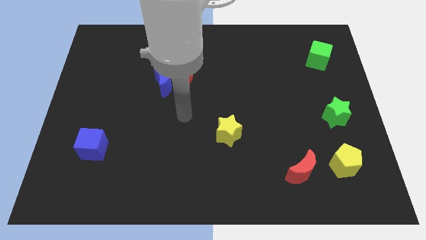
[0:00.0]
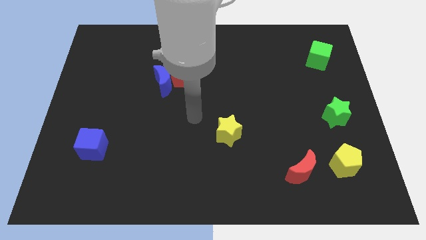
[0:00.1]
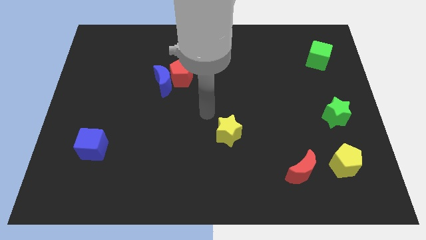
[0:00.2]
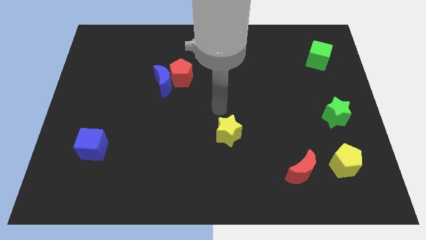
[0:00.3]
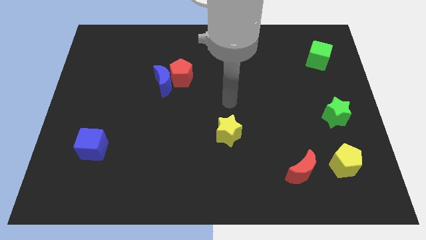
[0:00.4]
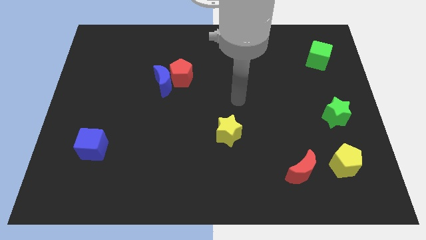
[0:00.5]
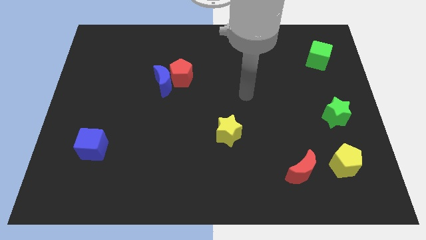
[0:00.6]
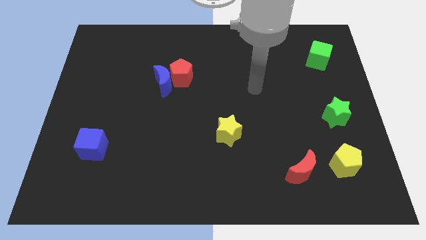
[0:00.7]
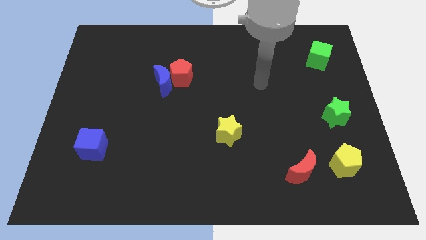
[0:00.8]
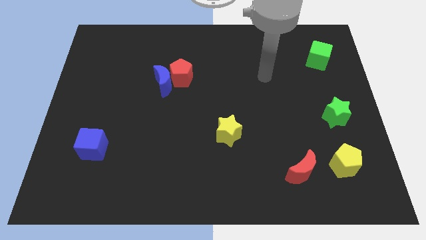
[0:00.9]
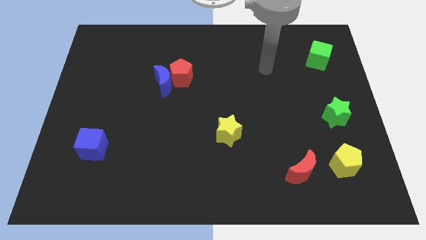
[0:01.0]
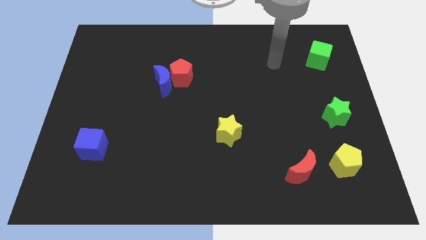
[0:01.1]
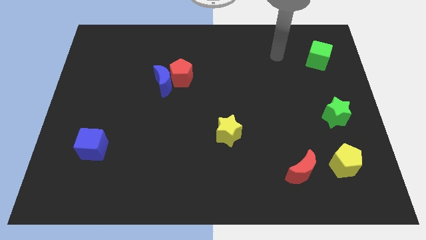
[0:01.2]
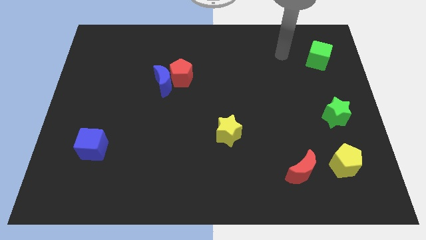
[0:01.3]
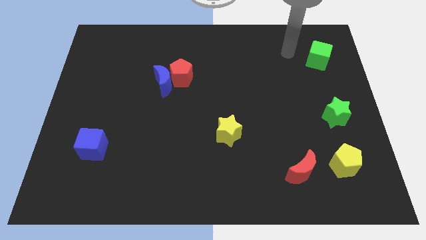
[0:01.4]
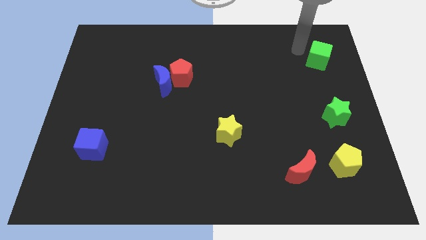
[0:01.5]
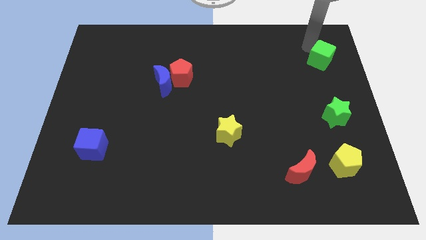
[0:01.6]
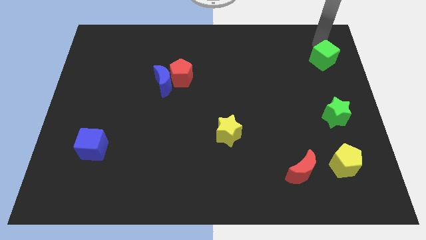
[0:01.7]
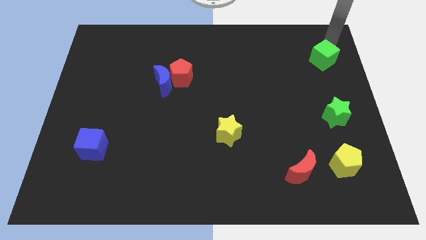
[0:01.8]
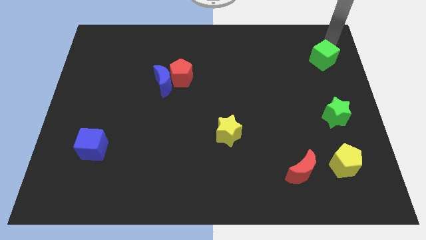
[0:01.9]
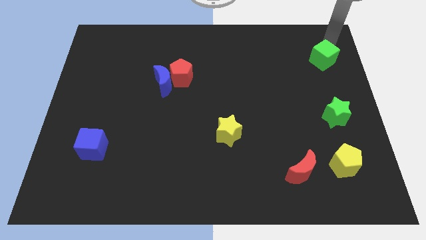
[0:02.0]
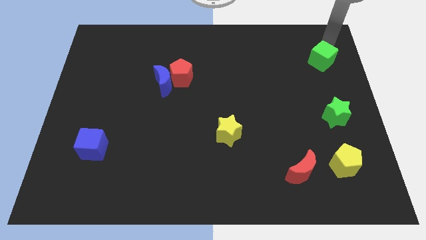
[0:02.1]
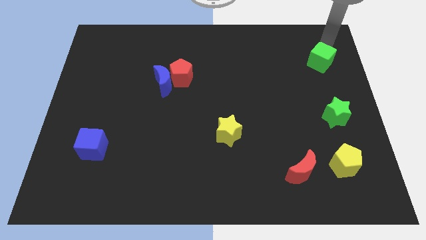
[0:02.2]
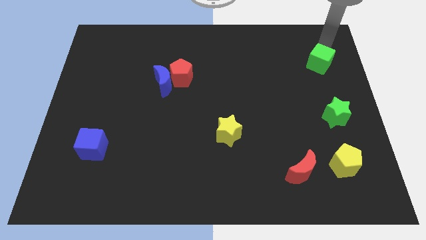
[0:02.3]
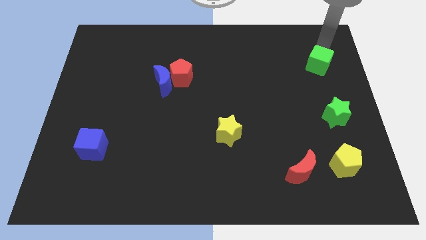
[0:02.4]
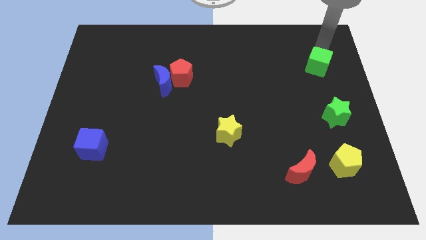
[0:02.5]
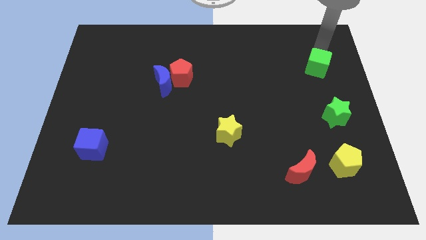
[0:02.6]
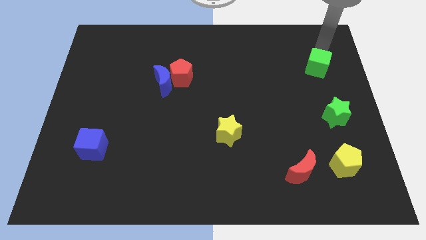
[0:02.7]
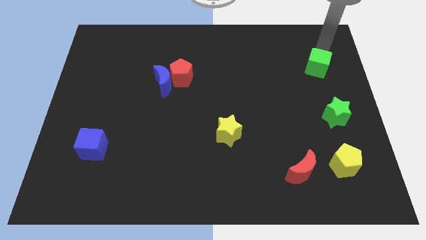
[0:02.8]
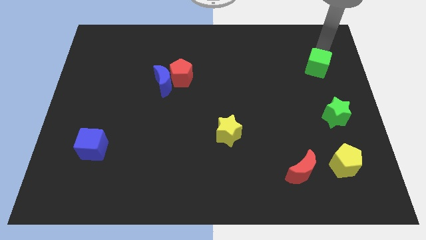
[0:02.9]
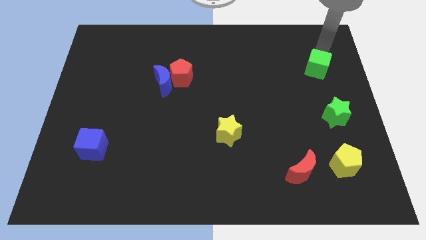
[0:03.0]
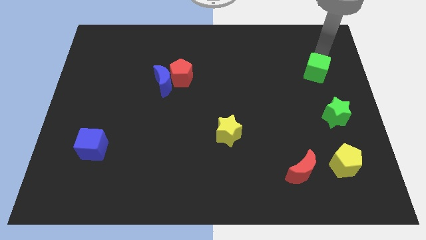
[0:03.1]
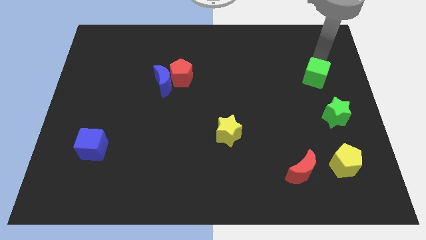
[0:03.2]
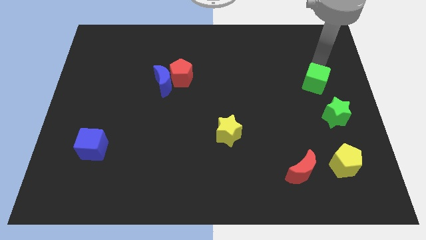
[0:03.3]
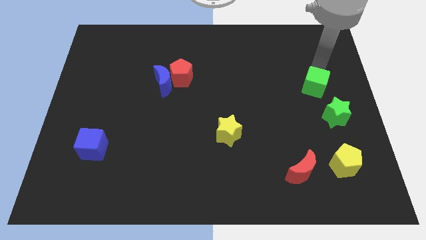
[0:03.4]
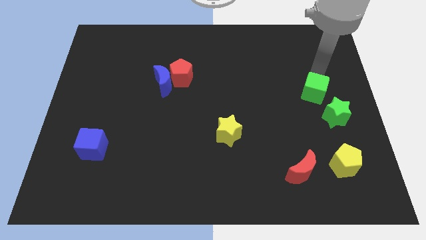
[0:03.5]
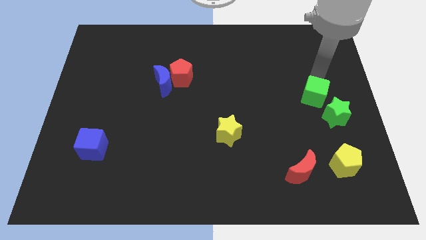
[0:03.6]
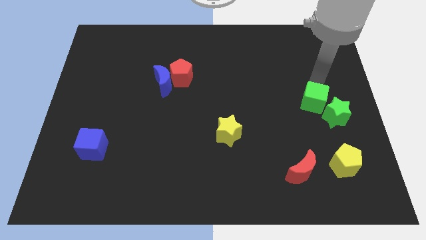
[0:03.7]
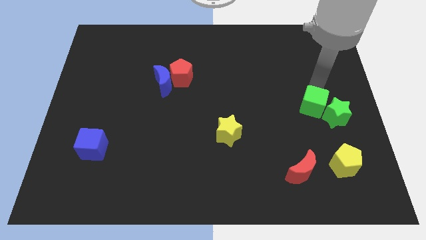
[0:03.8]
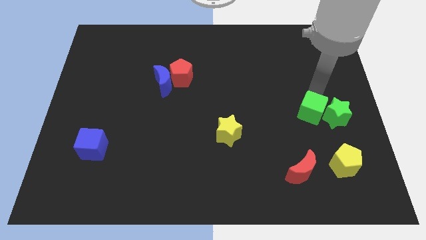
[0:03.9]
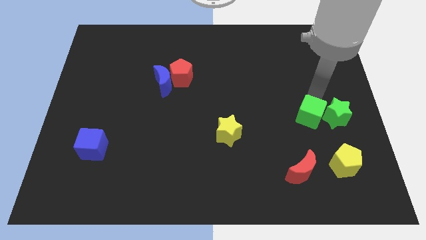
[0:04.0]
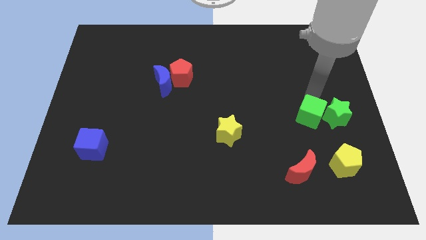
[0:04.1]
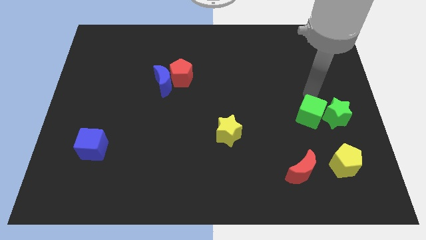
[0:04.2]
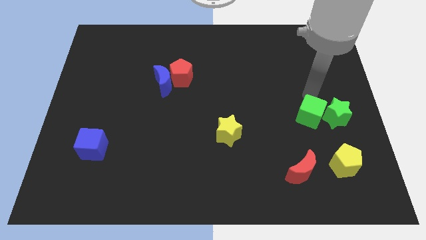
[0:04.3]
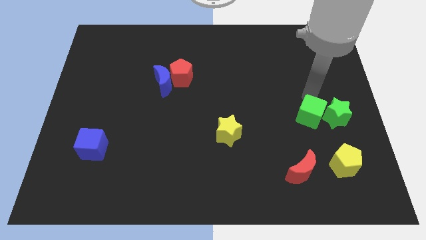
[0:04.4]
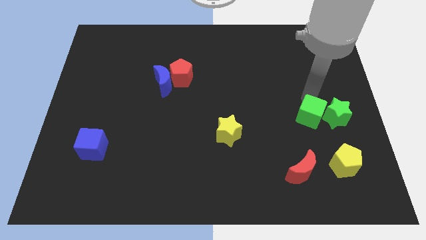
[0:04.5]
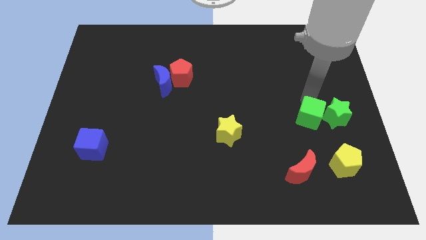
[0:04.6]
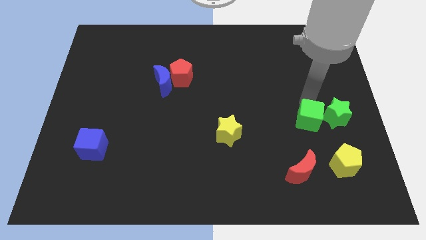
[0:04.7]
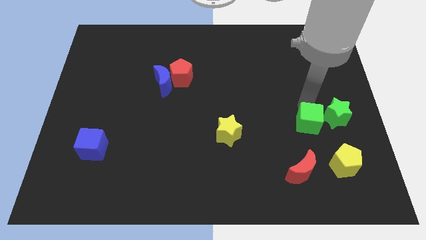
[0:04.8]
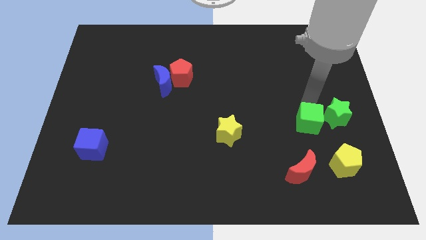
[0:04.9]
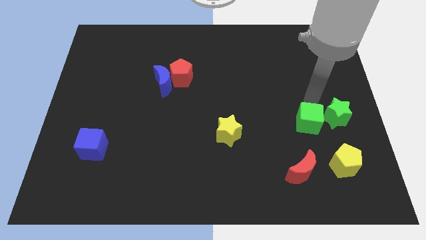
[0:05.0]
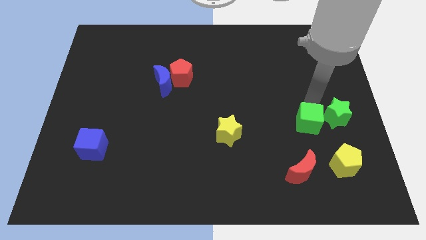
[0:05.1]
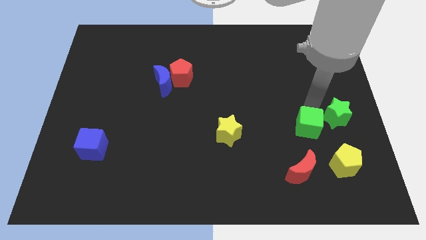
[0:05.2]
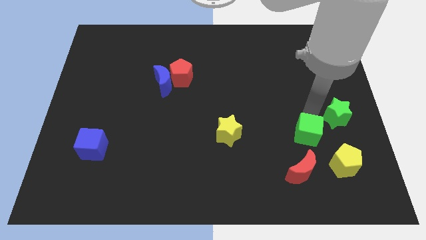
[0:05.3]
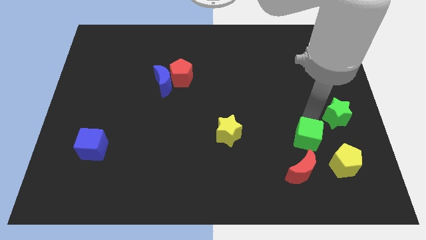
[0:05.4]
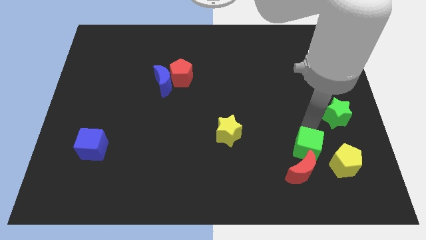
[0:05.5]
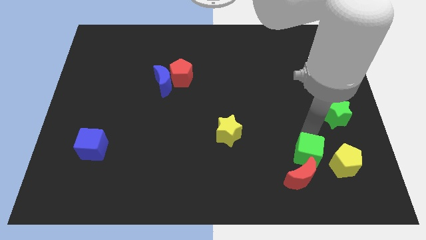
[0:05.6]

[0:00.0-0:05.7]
slide the green cube next to the red moon

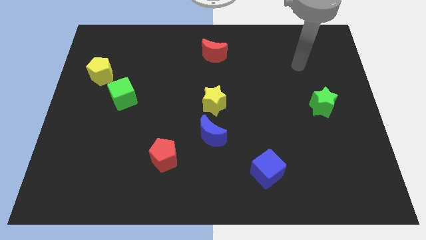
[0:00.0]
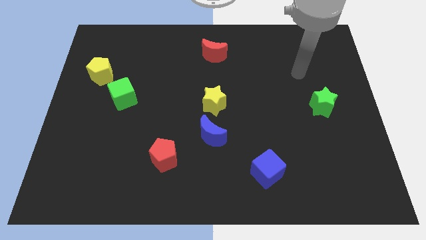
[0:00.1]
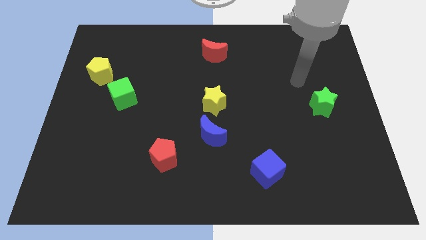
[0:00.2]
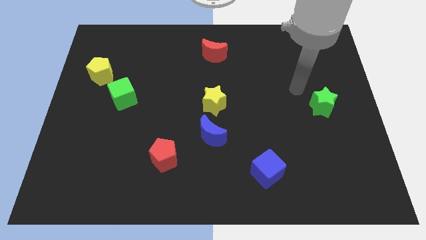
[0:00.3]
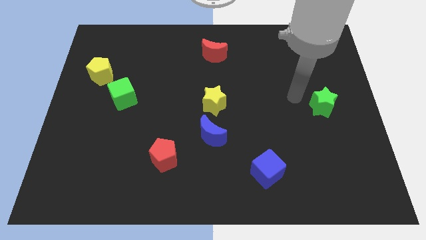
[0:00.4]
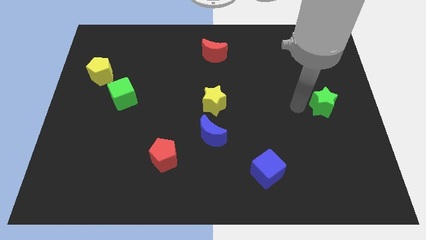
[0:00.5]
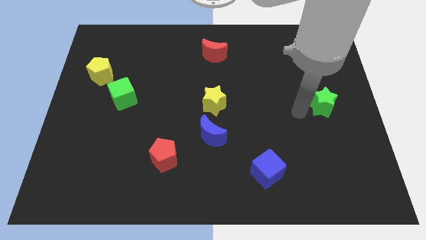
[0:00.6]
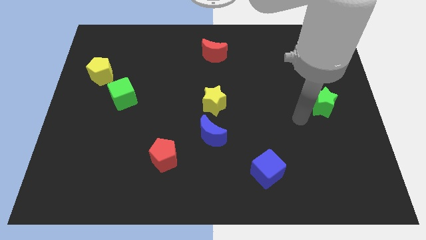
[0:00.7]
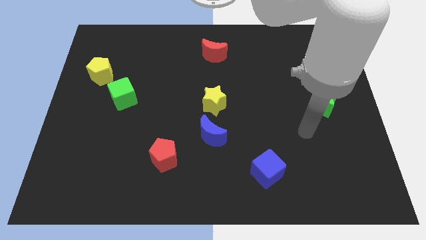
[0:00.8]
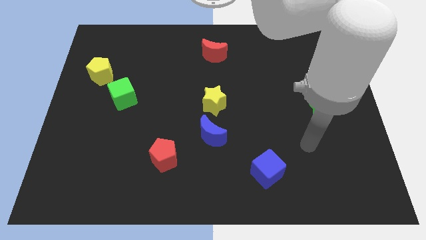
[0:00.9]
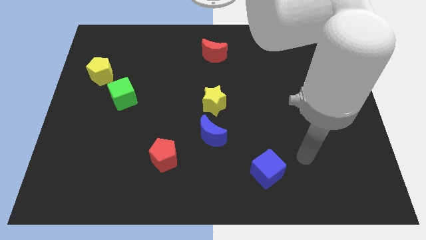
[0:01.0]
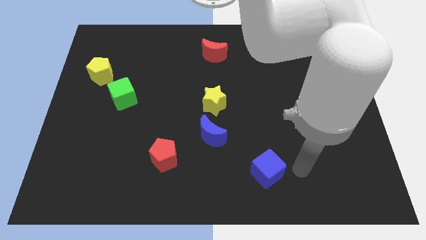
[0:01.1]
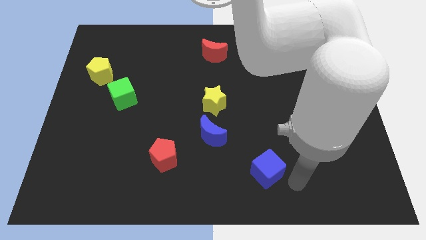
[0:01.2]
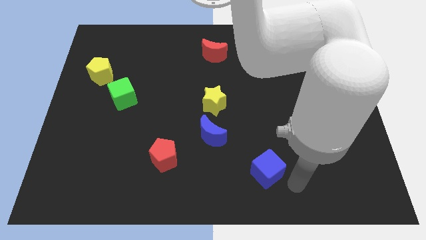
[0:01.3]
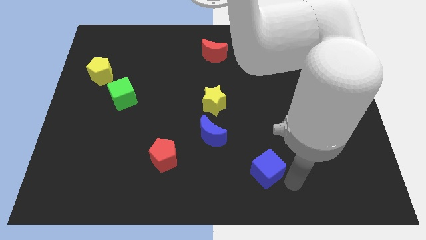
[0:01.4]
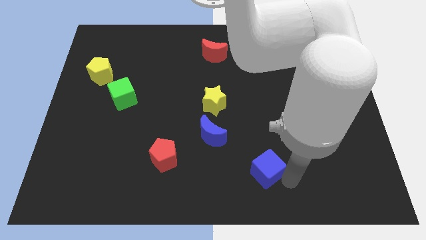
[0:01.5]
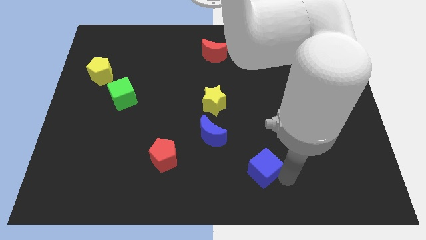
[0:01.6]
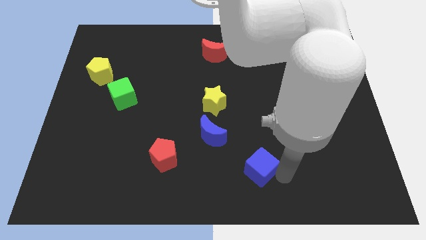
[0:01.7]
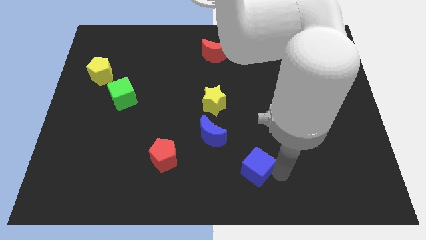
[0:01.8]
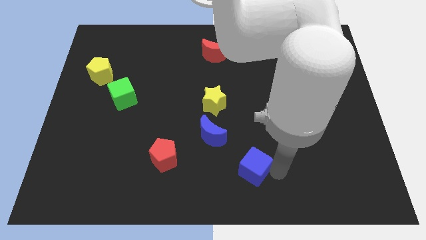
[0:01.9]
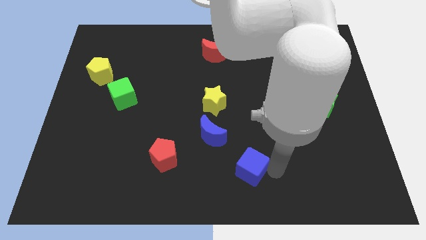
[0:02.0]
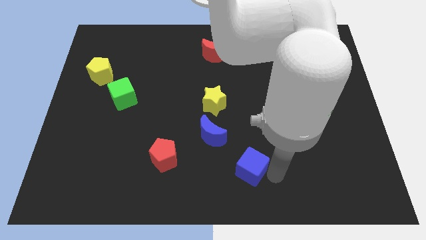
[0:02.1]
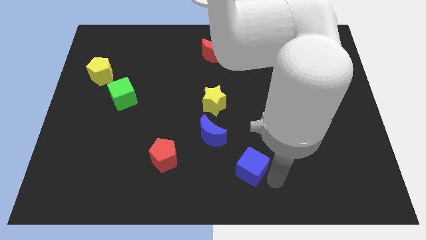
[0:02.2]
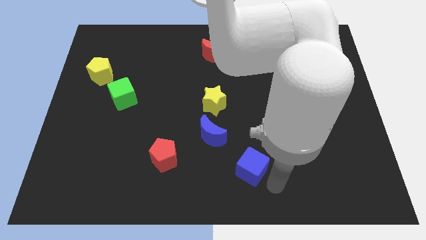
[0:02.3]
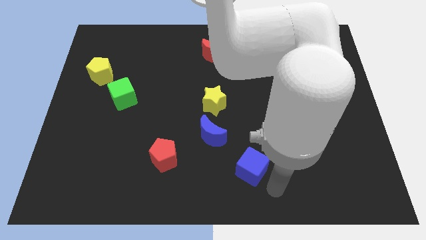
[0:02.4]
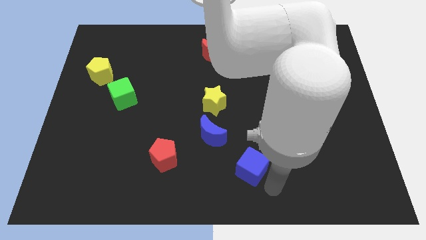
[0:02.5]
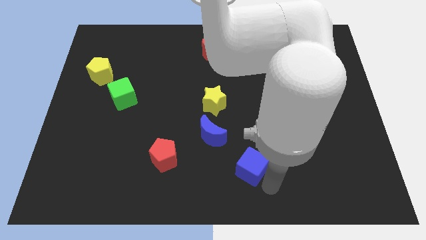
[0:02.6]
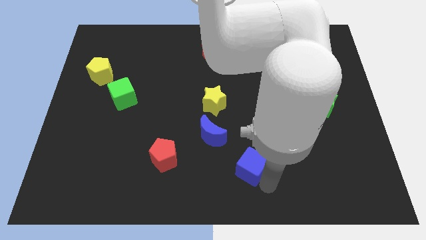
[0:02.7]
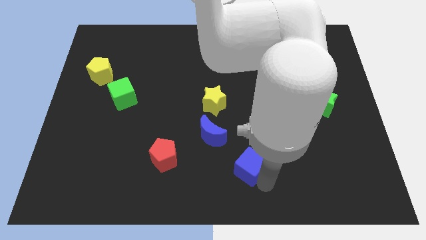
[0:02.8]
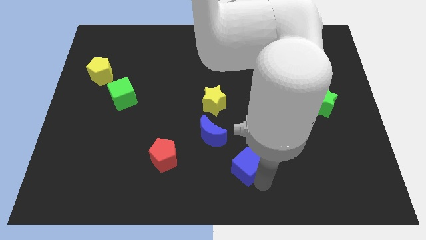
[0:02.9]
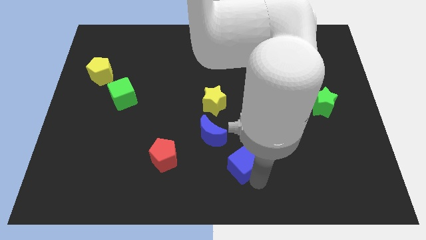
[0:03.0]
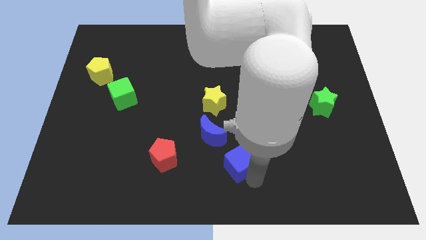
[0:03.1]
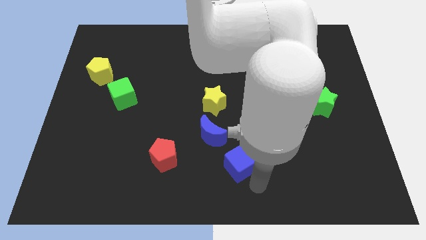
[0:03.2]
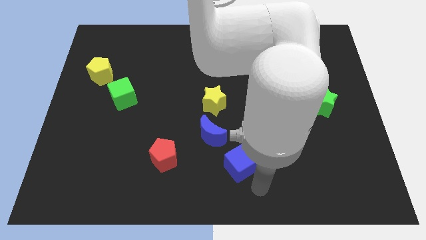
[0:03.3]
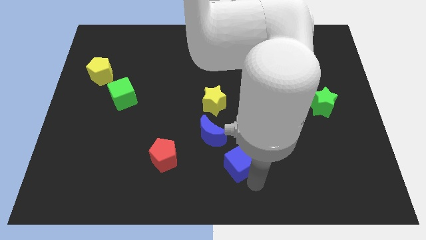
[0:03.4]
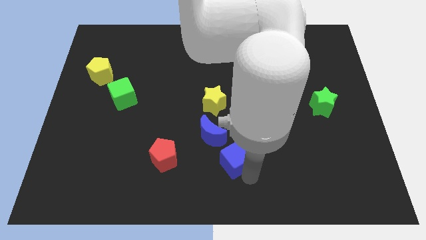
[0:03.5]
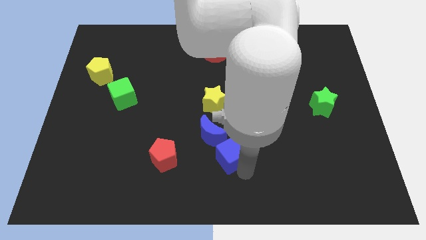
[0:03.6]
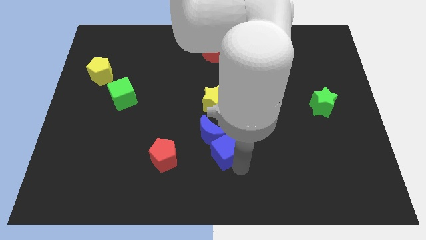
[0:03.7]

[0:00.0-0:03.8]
move the blue cube towards the blue moon
